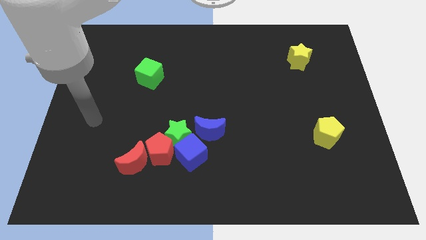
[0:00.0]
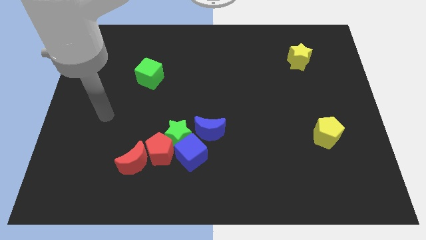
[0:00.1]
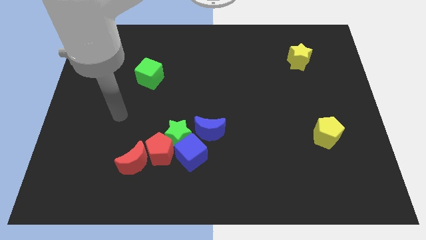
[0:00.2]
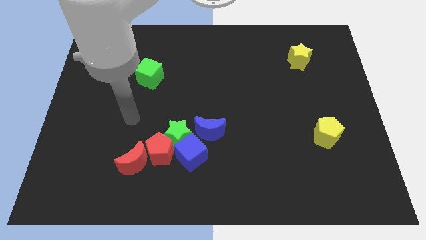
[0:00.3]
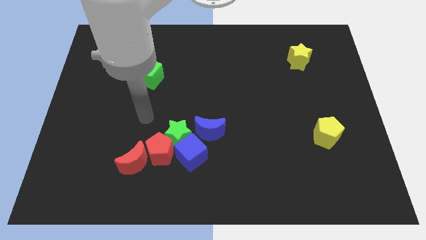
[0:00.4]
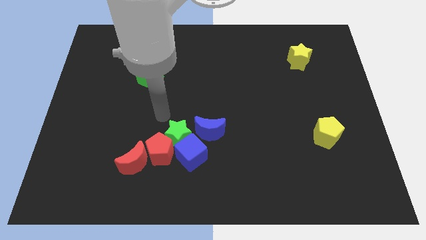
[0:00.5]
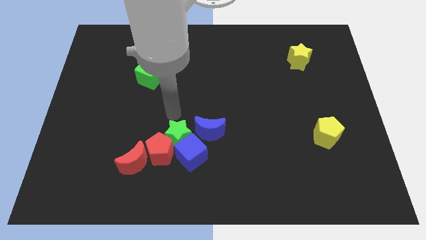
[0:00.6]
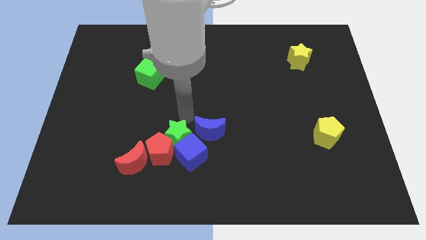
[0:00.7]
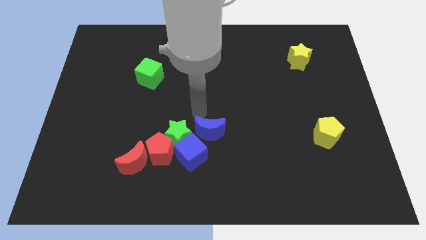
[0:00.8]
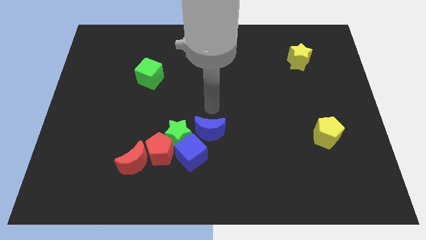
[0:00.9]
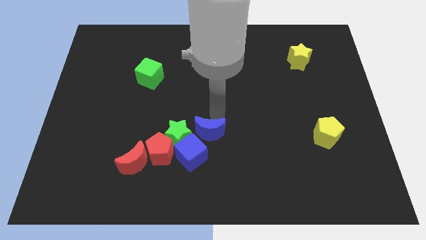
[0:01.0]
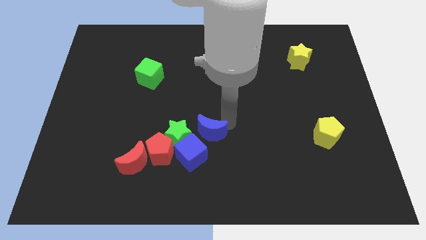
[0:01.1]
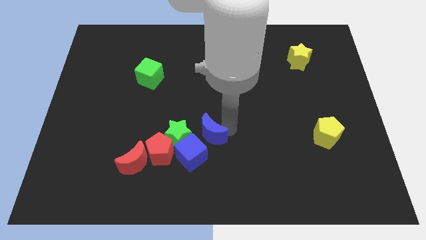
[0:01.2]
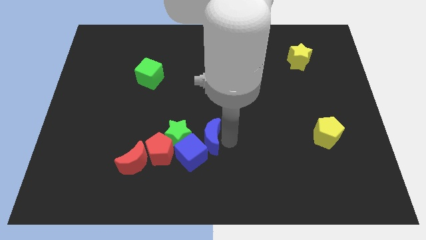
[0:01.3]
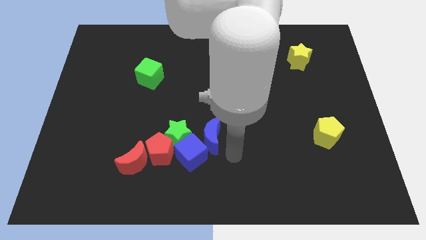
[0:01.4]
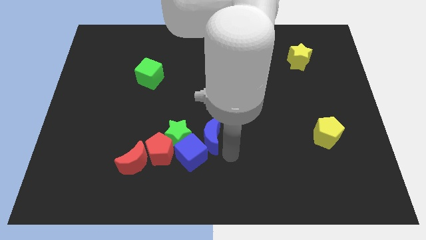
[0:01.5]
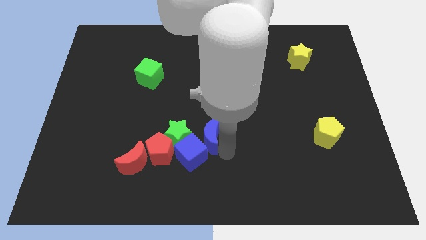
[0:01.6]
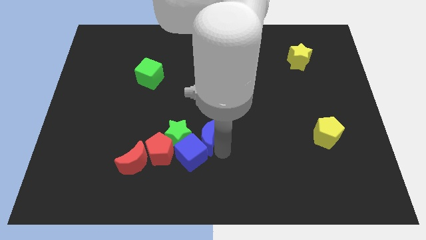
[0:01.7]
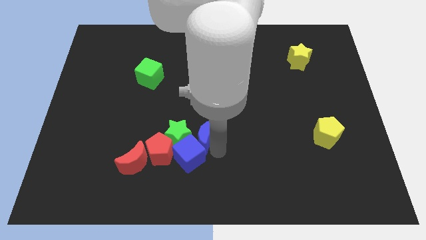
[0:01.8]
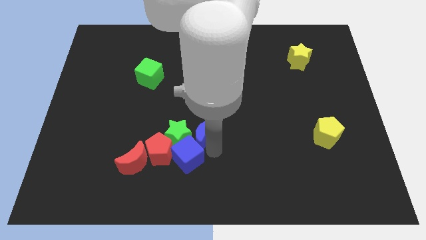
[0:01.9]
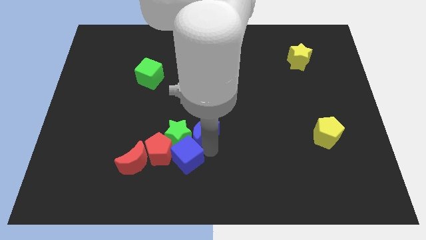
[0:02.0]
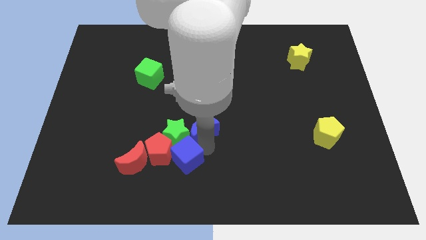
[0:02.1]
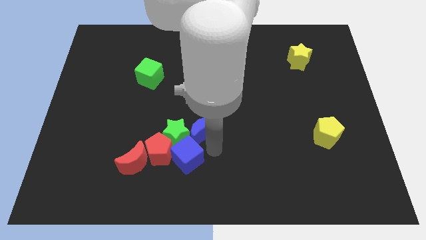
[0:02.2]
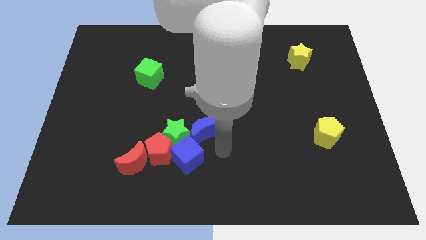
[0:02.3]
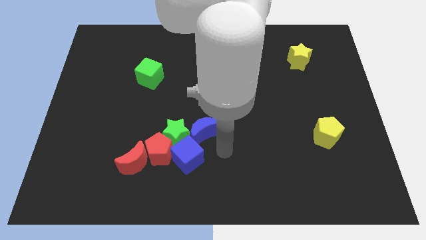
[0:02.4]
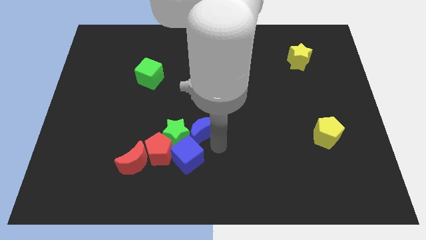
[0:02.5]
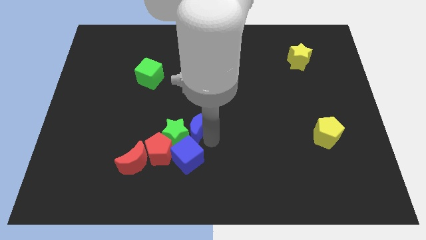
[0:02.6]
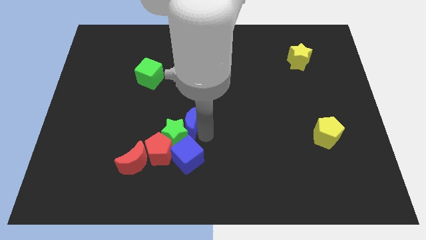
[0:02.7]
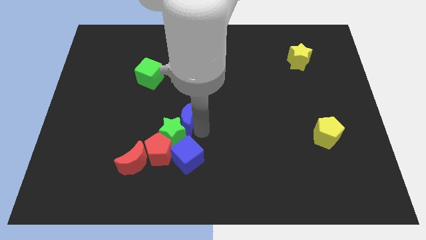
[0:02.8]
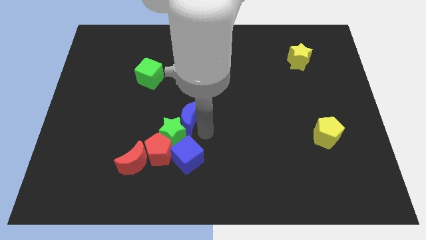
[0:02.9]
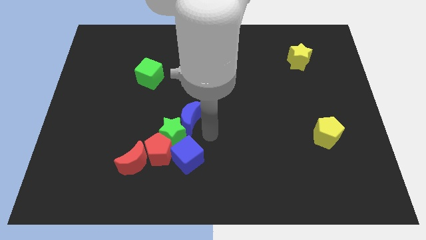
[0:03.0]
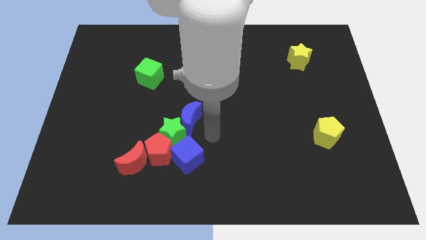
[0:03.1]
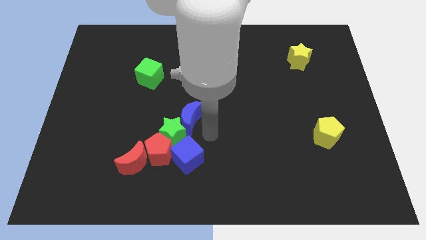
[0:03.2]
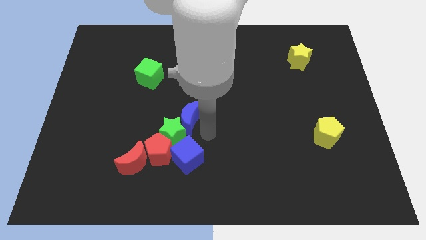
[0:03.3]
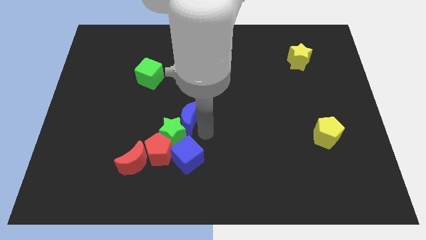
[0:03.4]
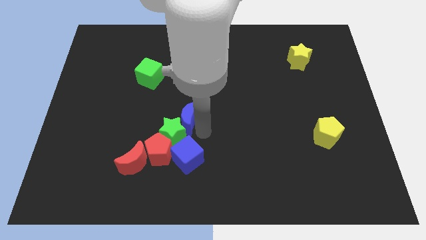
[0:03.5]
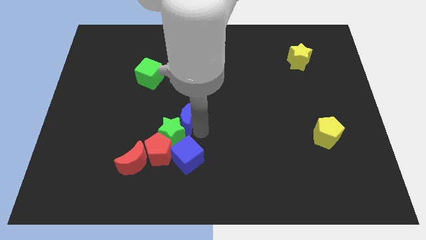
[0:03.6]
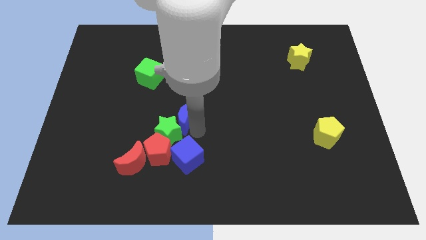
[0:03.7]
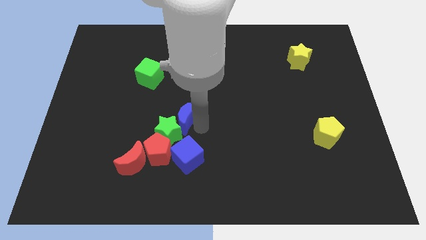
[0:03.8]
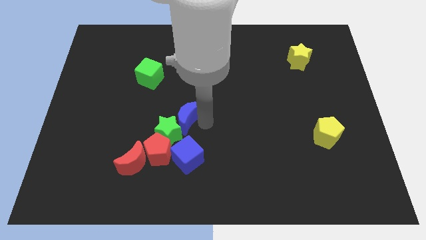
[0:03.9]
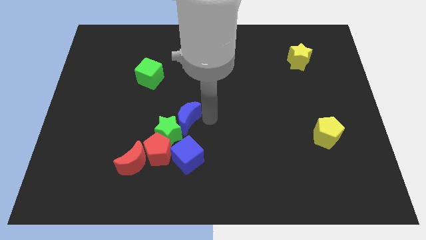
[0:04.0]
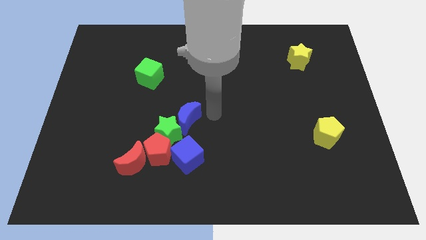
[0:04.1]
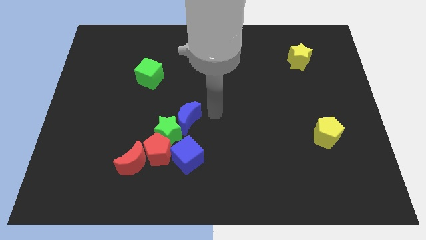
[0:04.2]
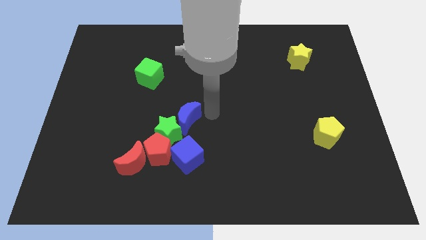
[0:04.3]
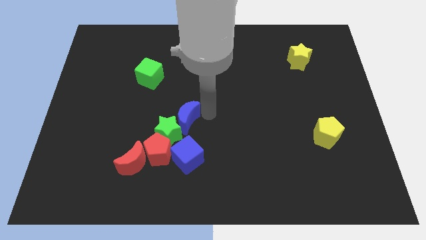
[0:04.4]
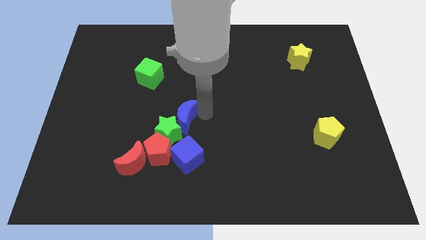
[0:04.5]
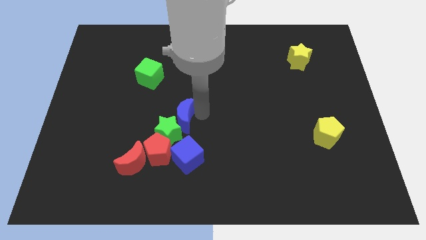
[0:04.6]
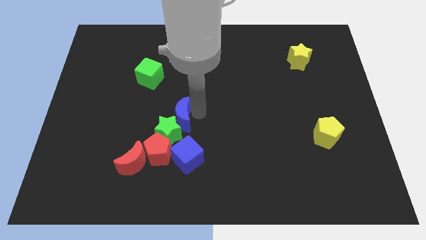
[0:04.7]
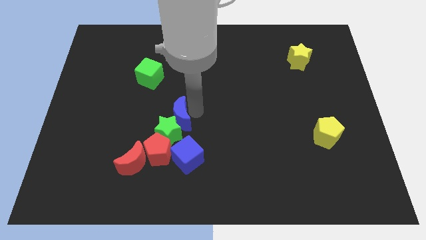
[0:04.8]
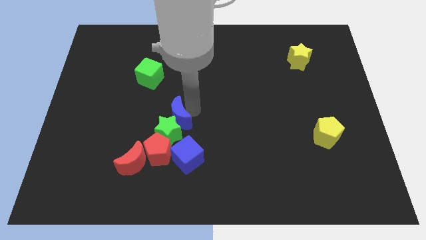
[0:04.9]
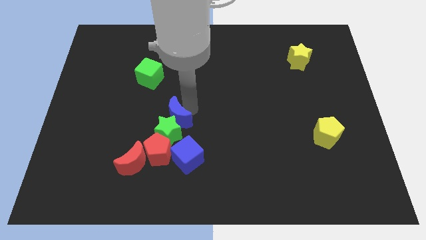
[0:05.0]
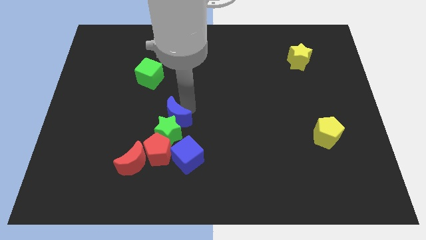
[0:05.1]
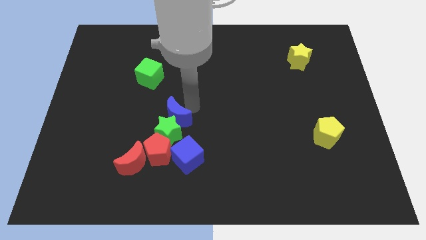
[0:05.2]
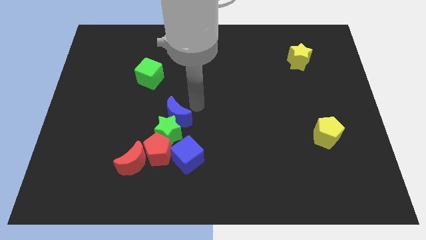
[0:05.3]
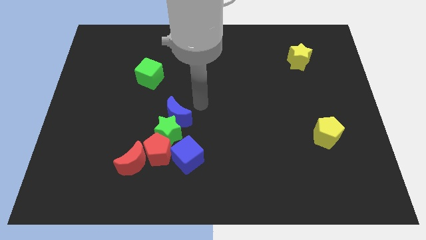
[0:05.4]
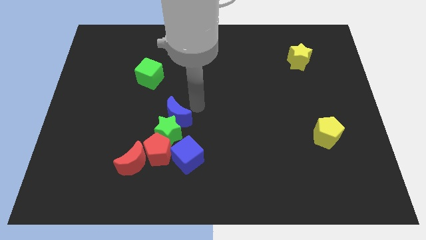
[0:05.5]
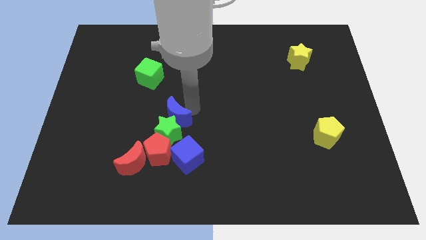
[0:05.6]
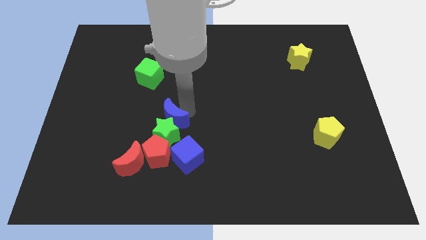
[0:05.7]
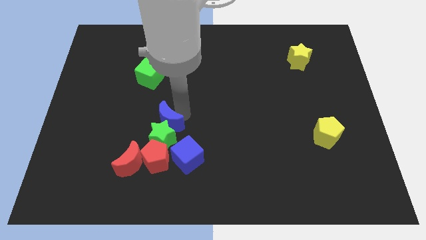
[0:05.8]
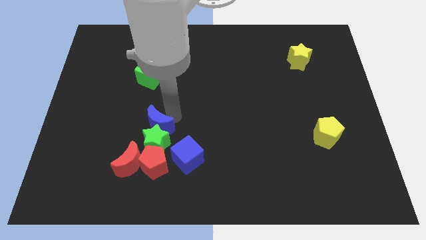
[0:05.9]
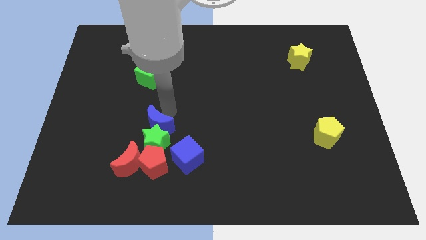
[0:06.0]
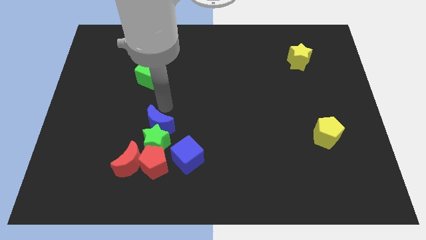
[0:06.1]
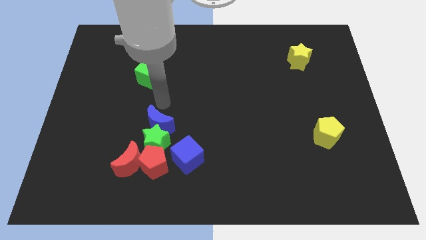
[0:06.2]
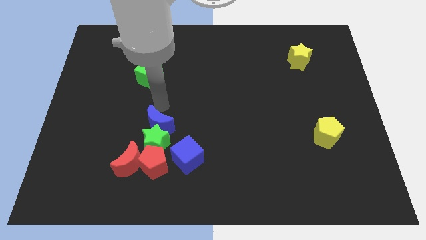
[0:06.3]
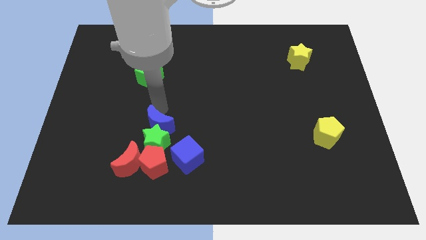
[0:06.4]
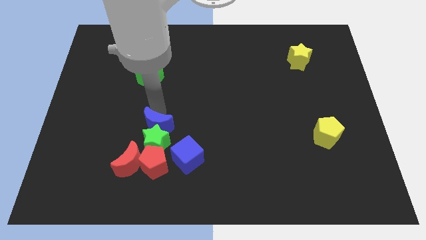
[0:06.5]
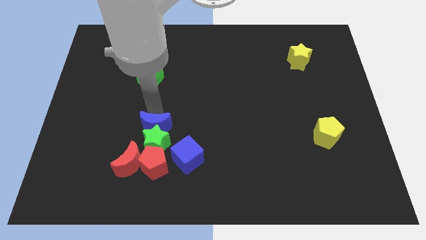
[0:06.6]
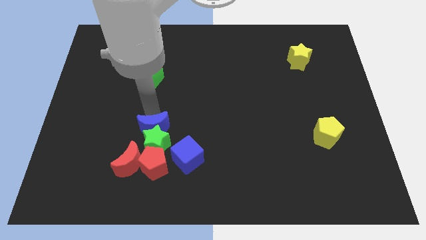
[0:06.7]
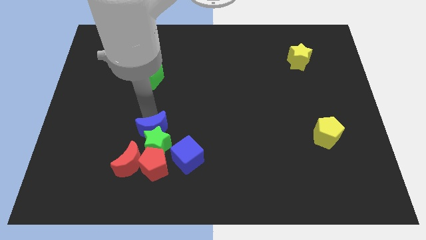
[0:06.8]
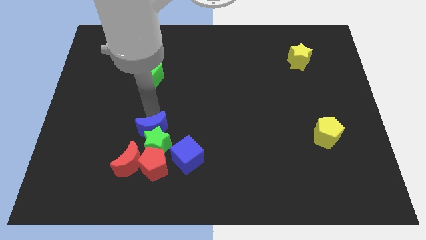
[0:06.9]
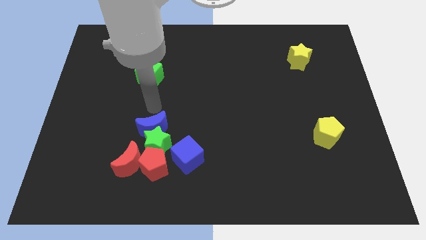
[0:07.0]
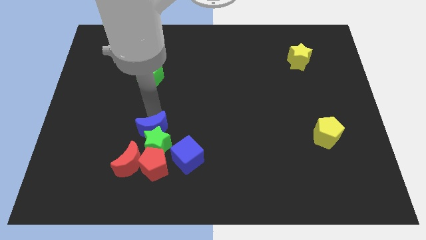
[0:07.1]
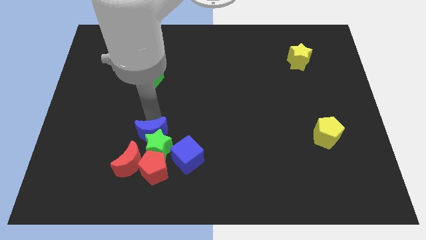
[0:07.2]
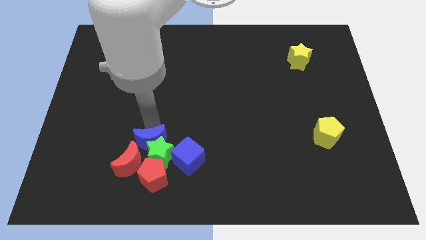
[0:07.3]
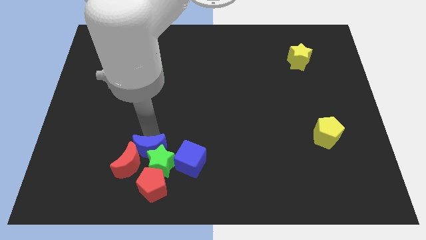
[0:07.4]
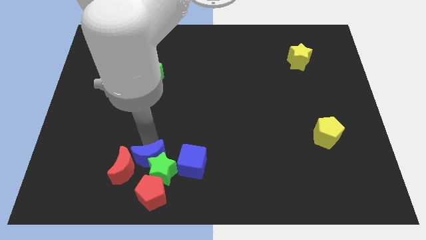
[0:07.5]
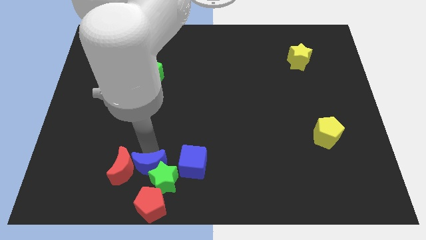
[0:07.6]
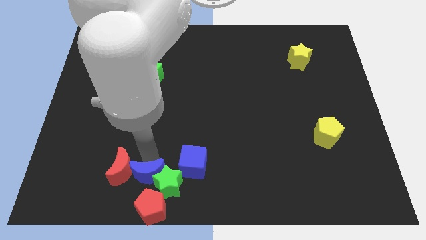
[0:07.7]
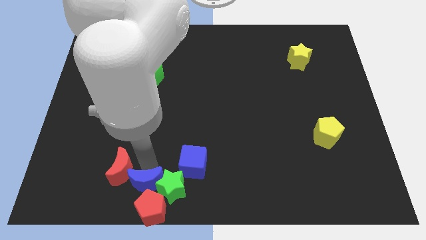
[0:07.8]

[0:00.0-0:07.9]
push the blue moon close to the red pentagon
